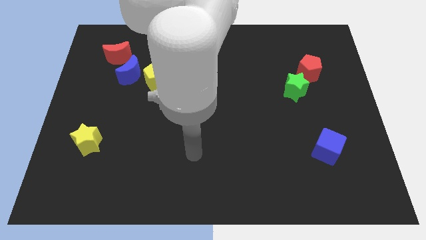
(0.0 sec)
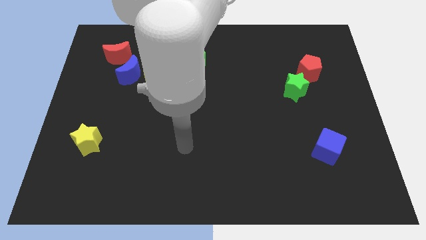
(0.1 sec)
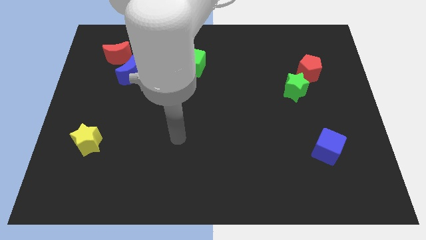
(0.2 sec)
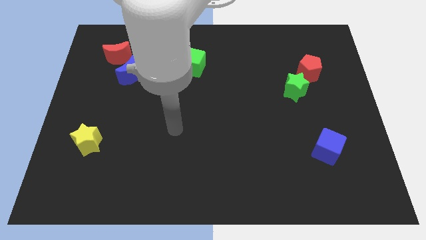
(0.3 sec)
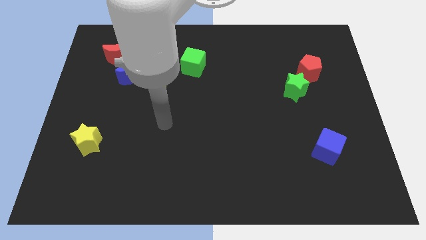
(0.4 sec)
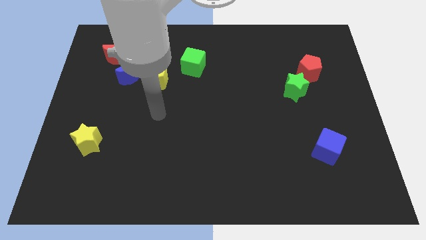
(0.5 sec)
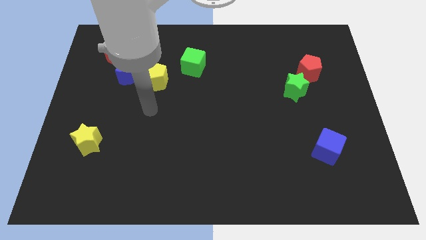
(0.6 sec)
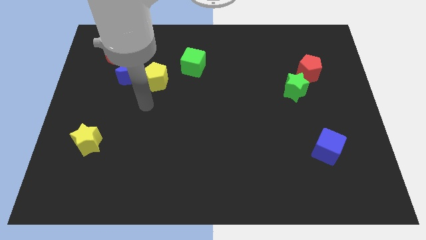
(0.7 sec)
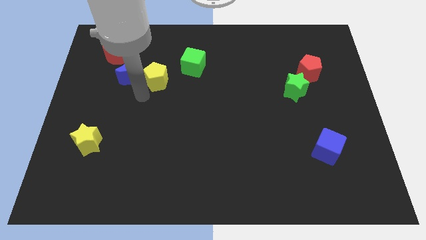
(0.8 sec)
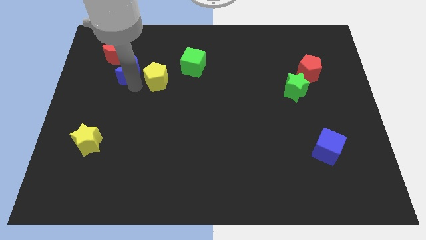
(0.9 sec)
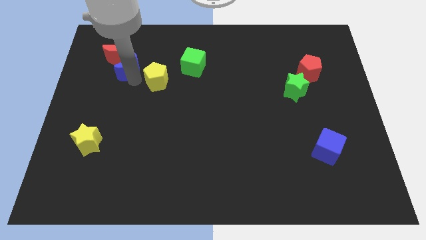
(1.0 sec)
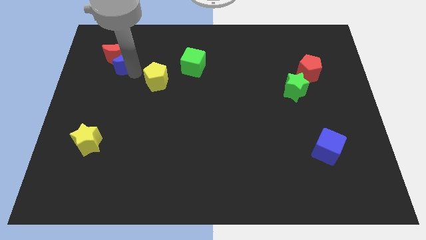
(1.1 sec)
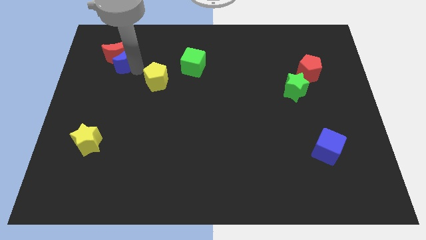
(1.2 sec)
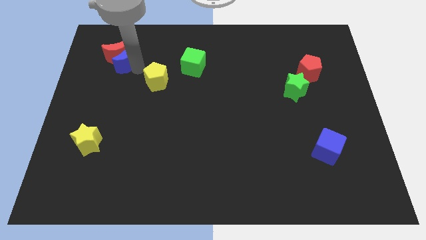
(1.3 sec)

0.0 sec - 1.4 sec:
separate the yellow pentagon from the blue moon

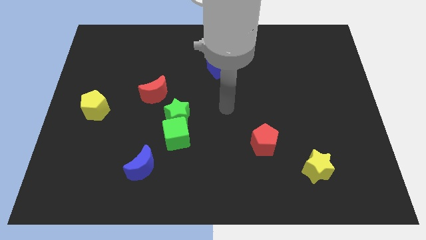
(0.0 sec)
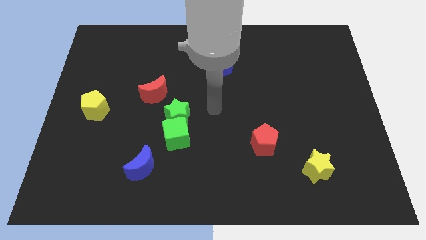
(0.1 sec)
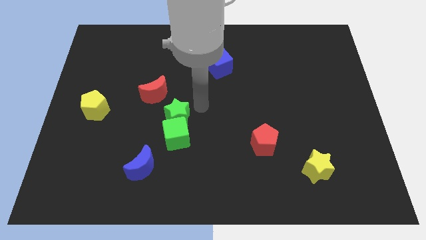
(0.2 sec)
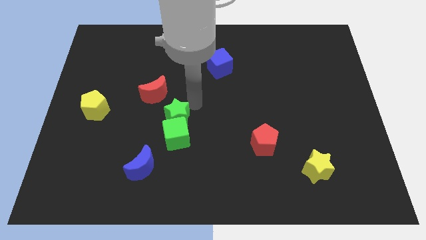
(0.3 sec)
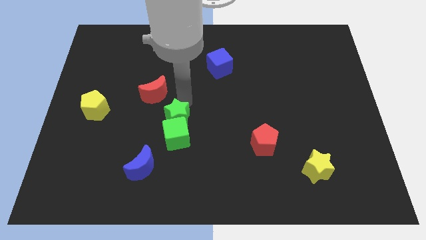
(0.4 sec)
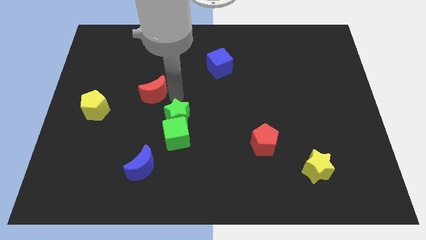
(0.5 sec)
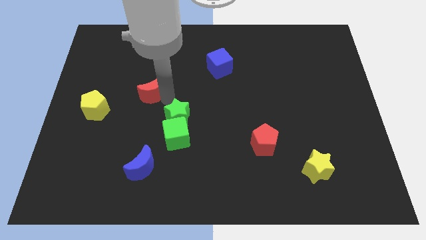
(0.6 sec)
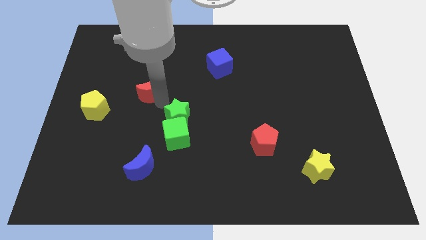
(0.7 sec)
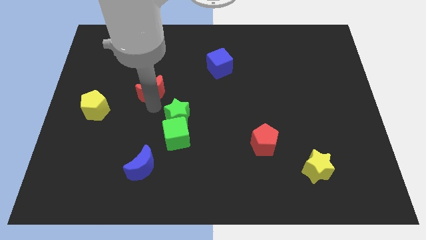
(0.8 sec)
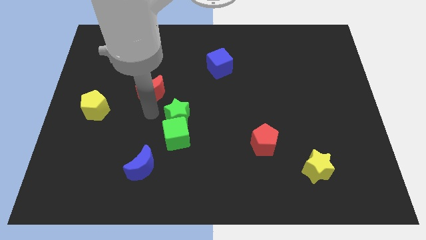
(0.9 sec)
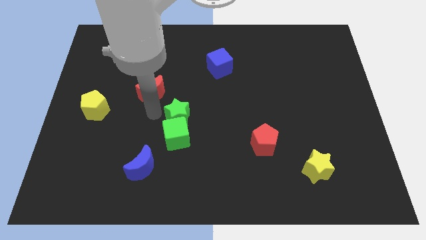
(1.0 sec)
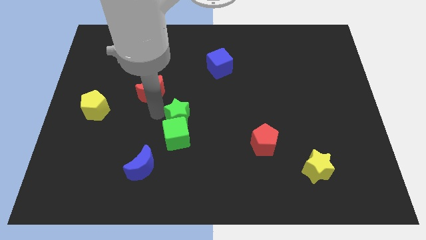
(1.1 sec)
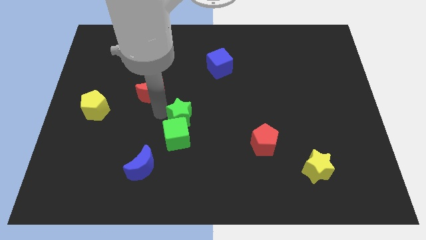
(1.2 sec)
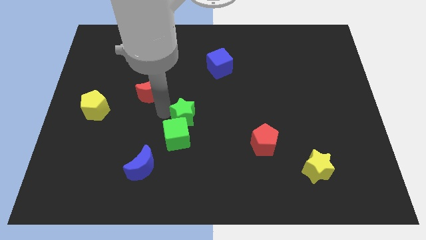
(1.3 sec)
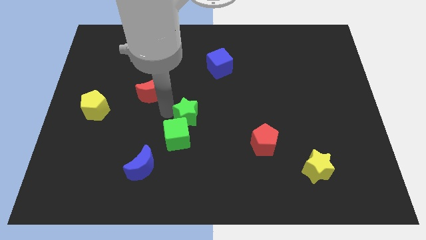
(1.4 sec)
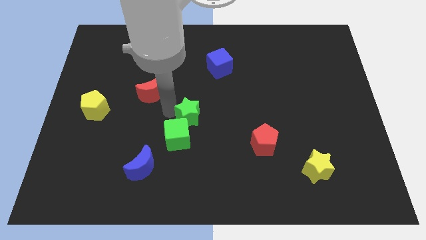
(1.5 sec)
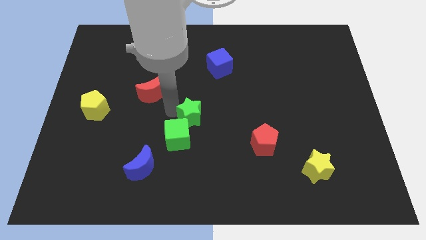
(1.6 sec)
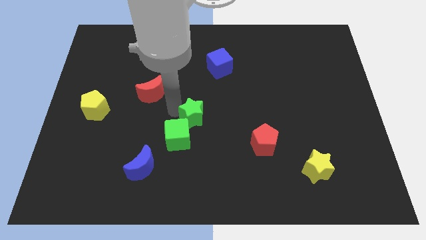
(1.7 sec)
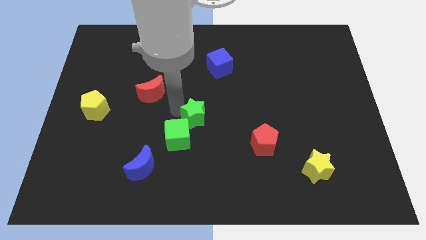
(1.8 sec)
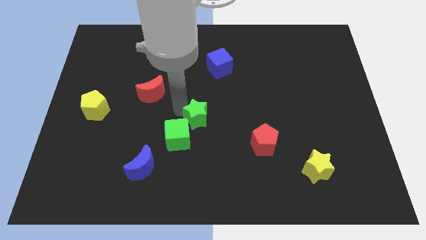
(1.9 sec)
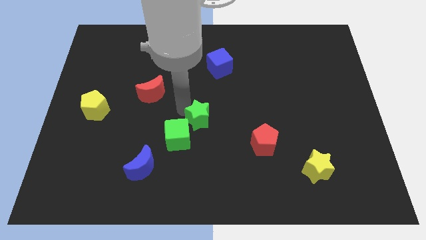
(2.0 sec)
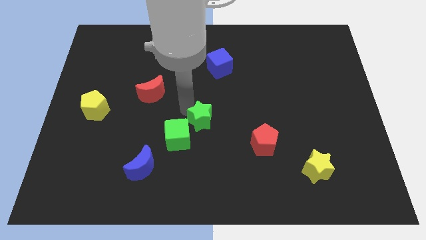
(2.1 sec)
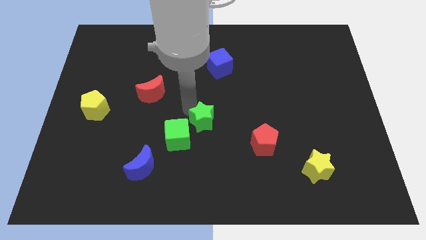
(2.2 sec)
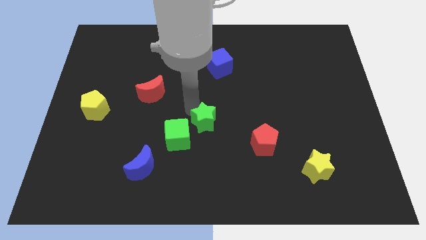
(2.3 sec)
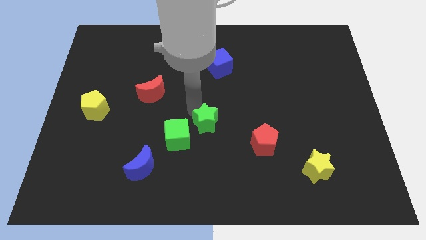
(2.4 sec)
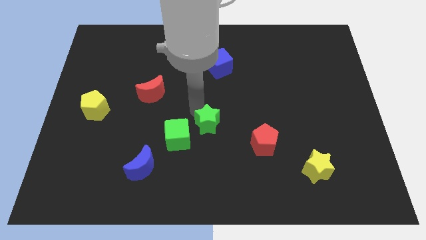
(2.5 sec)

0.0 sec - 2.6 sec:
move the green star away from the green cube and red moon

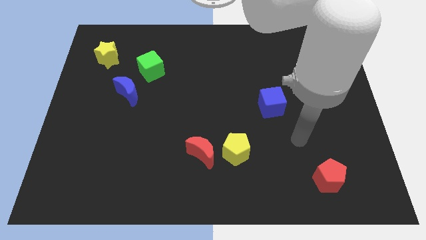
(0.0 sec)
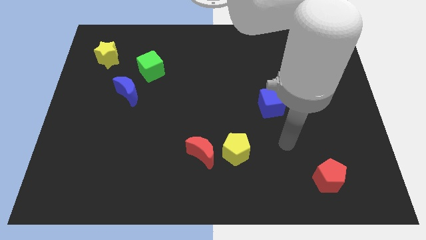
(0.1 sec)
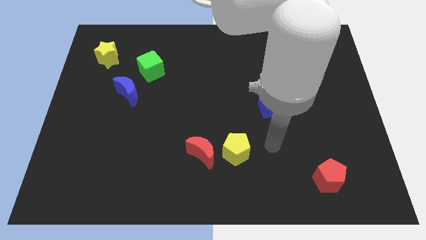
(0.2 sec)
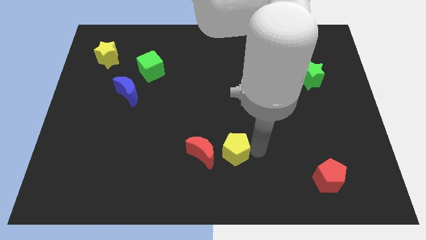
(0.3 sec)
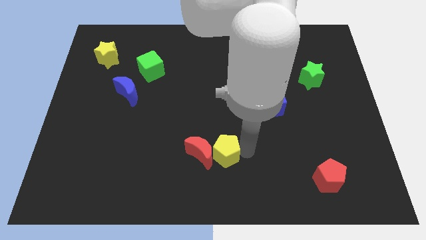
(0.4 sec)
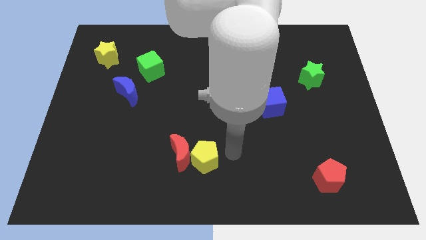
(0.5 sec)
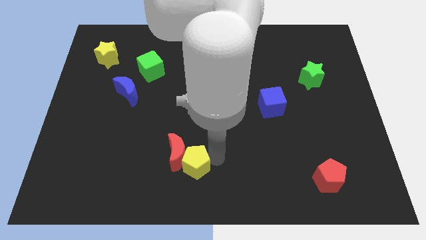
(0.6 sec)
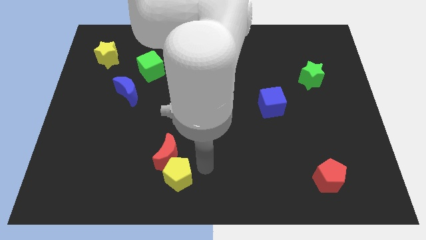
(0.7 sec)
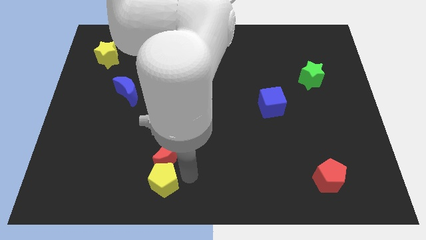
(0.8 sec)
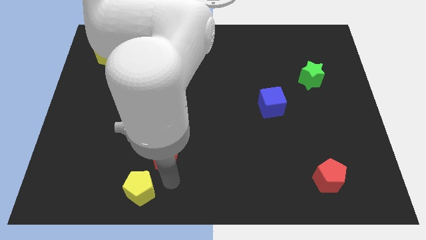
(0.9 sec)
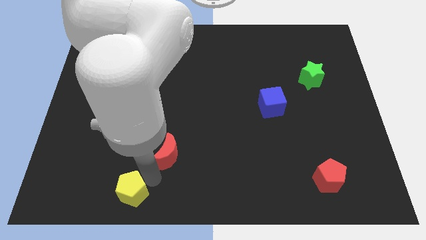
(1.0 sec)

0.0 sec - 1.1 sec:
move the red moon away from the yellow pentagon

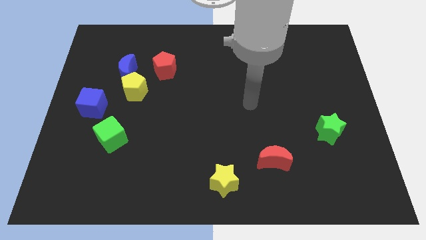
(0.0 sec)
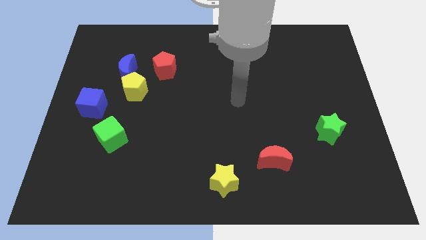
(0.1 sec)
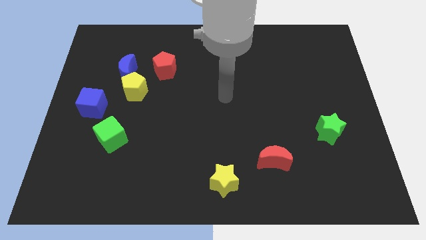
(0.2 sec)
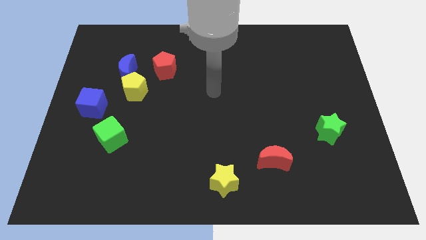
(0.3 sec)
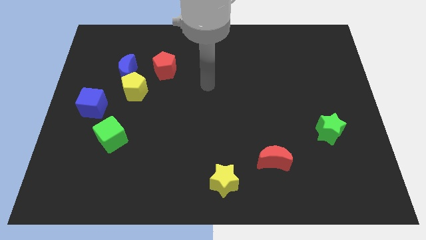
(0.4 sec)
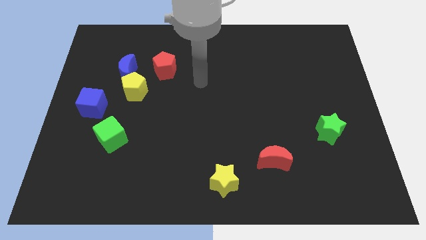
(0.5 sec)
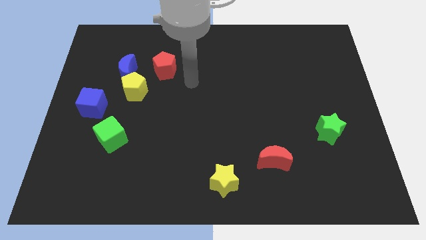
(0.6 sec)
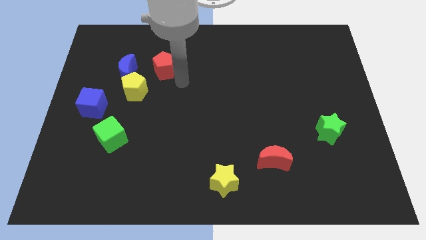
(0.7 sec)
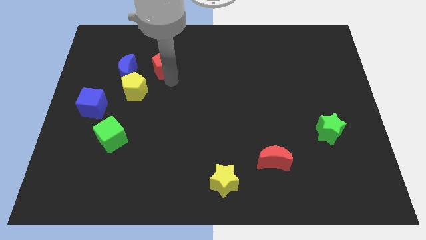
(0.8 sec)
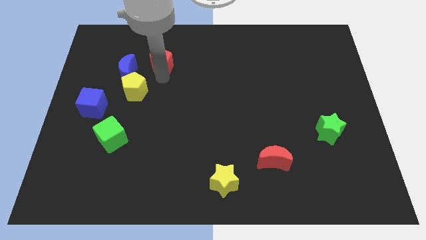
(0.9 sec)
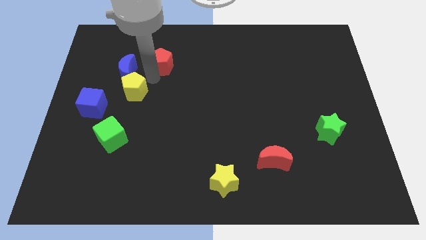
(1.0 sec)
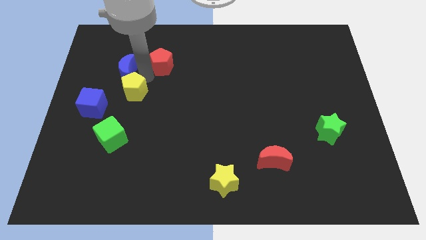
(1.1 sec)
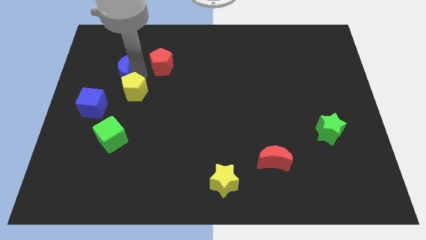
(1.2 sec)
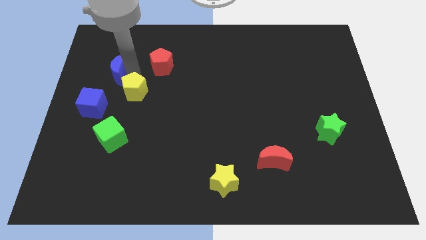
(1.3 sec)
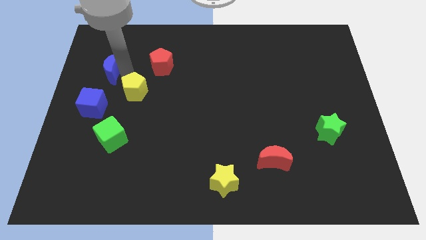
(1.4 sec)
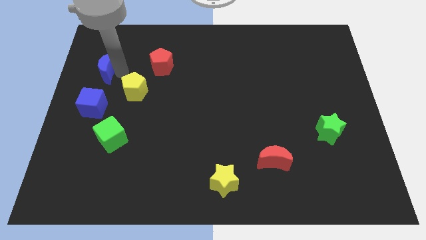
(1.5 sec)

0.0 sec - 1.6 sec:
move the blue moon away from the yellow pentagon and red pentagon

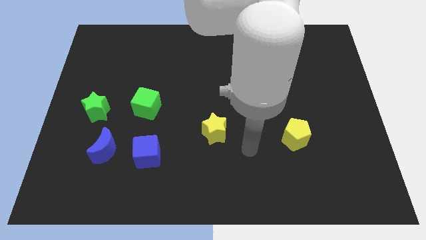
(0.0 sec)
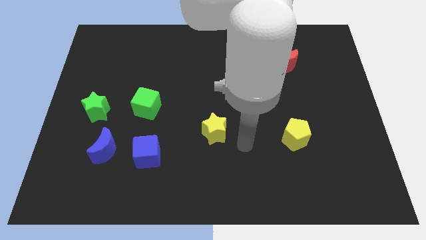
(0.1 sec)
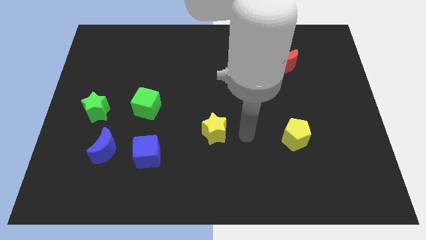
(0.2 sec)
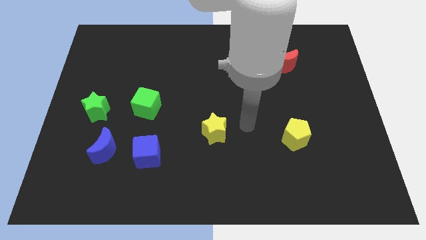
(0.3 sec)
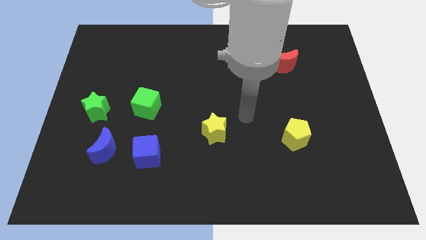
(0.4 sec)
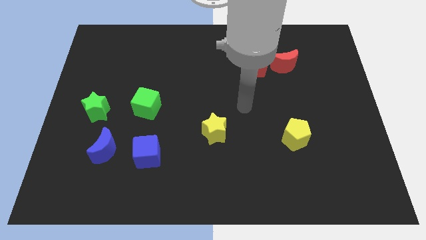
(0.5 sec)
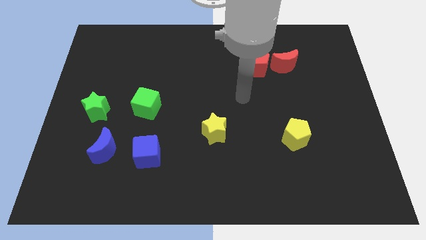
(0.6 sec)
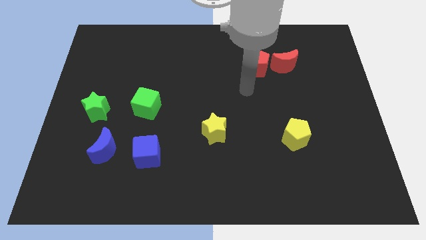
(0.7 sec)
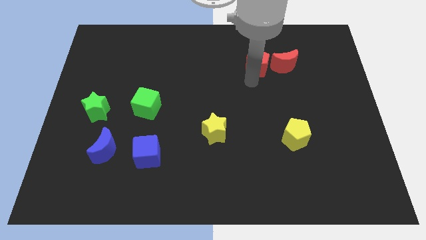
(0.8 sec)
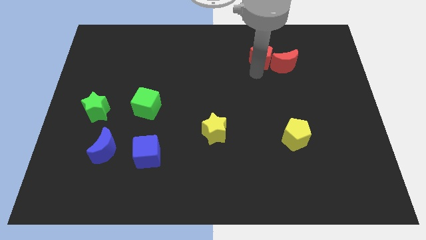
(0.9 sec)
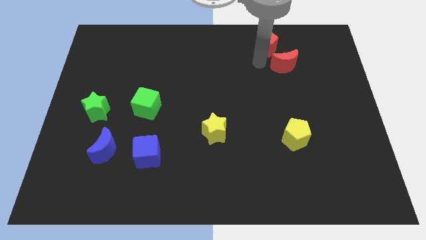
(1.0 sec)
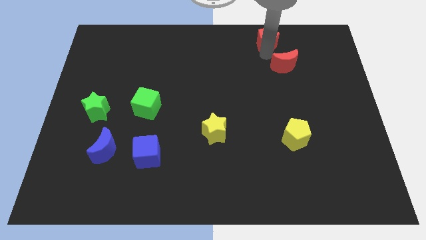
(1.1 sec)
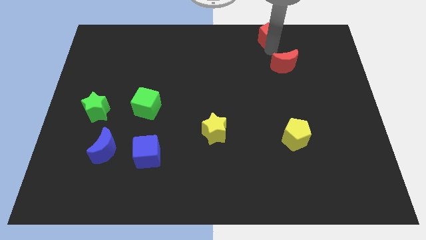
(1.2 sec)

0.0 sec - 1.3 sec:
pull the red moon apart from the red pentagon

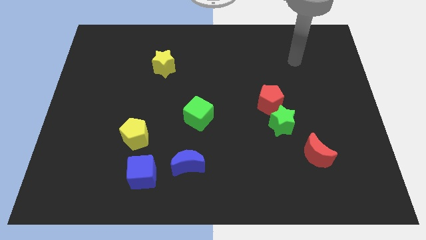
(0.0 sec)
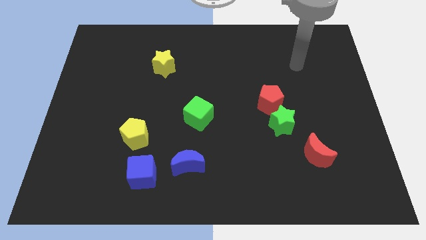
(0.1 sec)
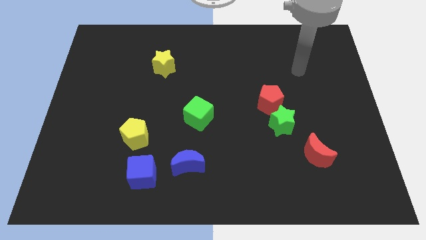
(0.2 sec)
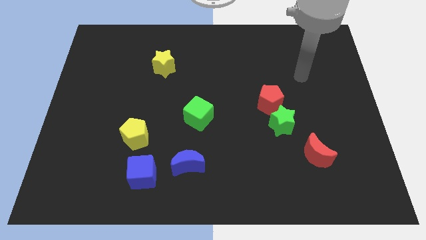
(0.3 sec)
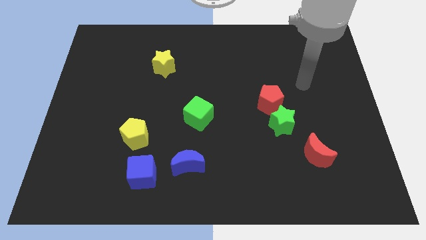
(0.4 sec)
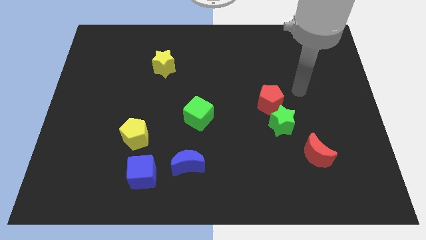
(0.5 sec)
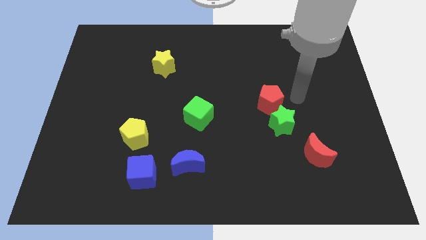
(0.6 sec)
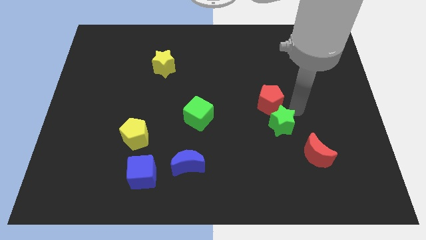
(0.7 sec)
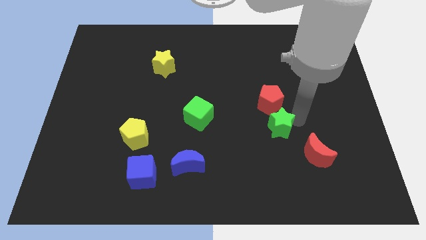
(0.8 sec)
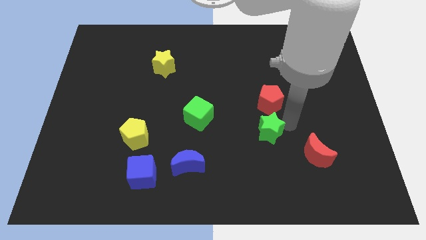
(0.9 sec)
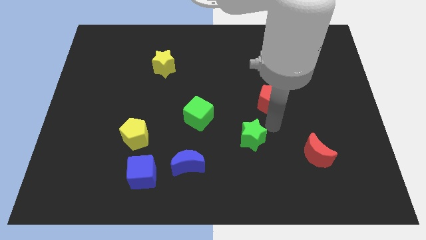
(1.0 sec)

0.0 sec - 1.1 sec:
pull the red pentagon apart from the green star
